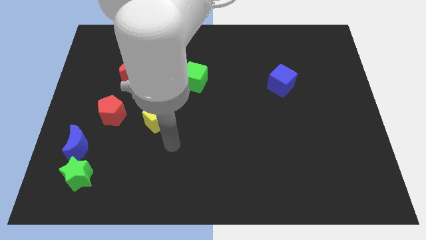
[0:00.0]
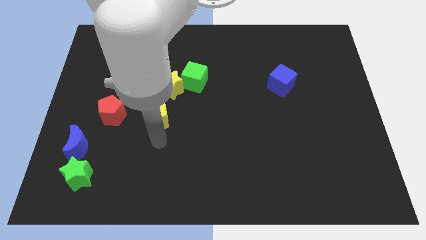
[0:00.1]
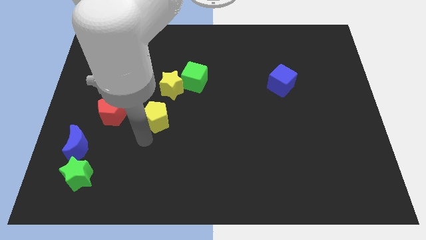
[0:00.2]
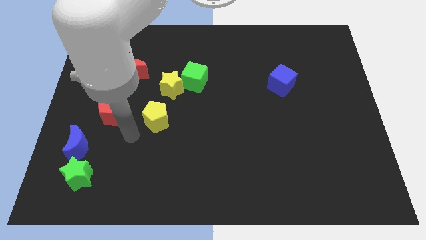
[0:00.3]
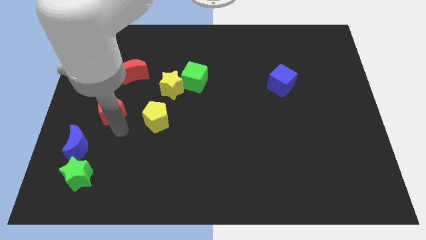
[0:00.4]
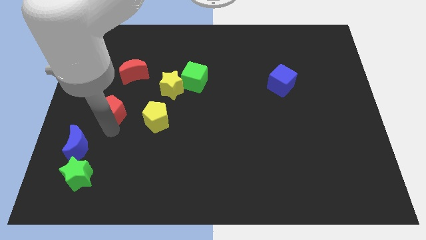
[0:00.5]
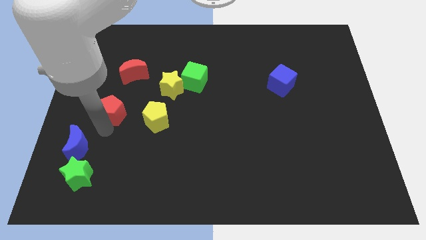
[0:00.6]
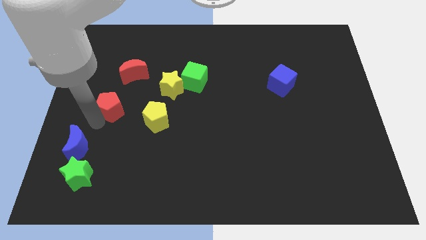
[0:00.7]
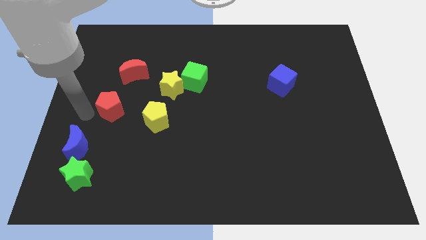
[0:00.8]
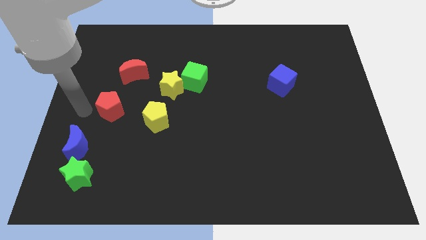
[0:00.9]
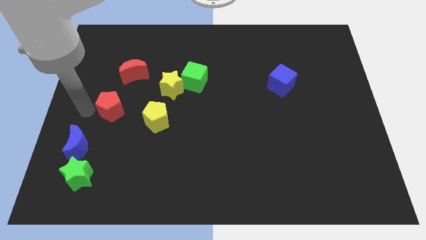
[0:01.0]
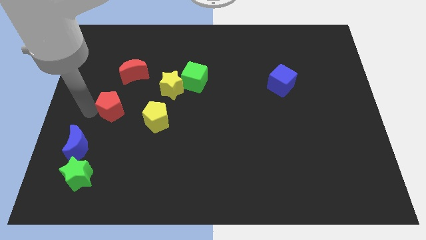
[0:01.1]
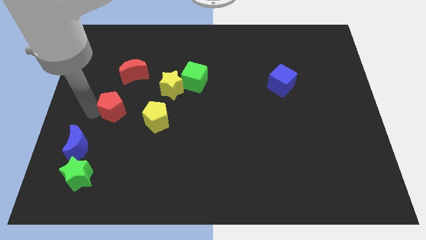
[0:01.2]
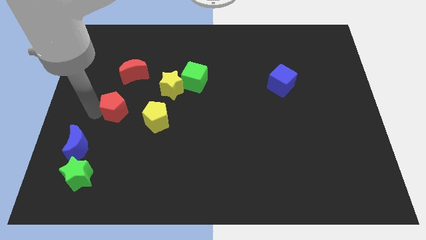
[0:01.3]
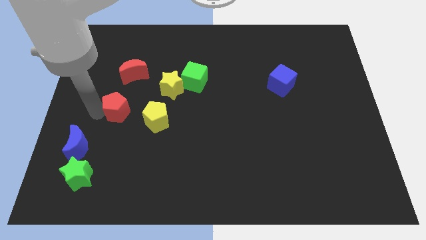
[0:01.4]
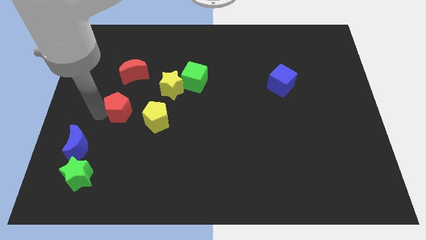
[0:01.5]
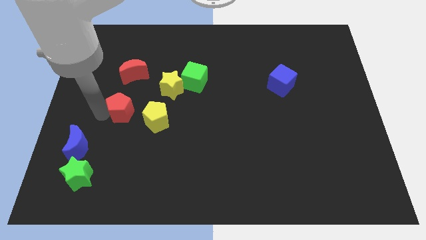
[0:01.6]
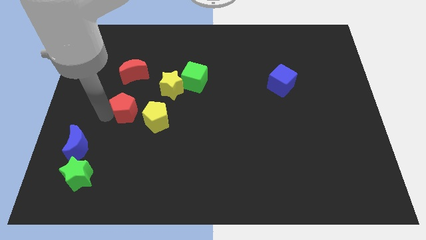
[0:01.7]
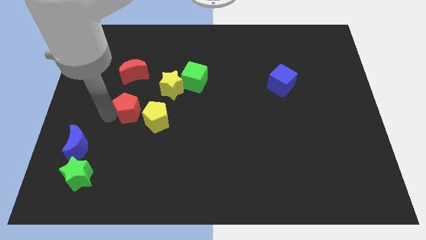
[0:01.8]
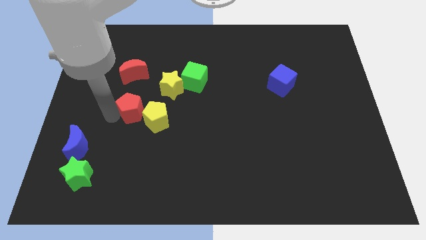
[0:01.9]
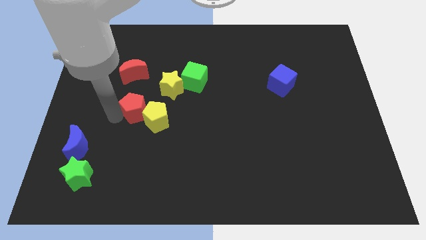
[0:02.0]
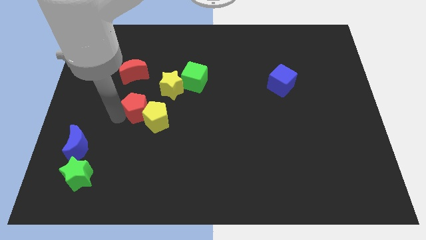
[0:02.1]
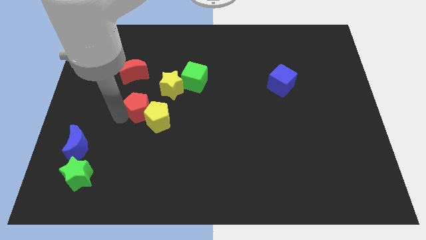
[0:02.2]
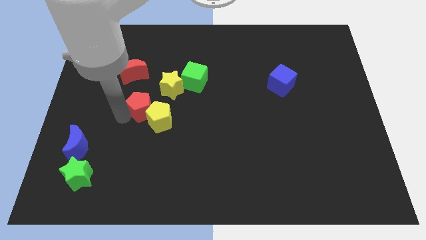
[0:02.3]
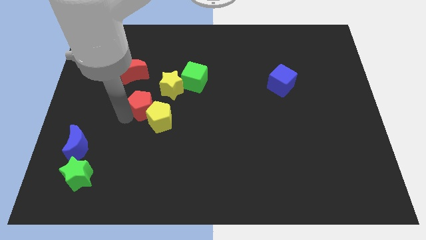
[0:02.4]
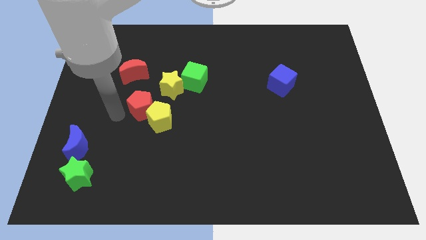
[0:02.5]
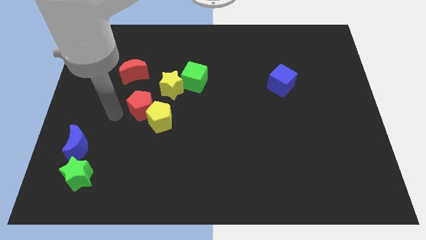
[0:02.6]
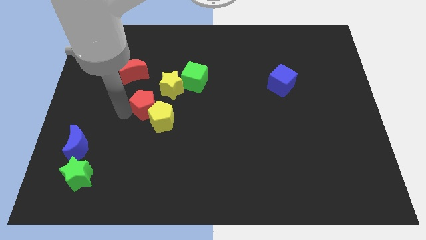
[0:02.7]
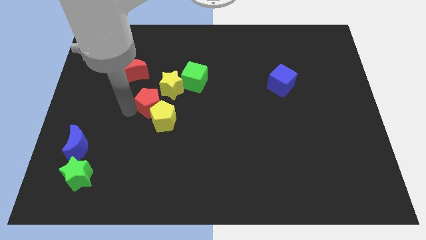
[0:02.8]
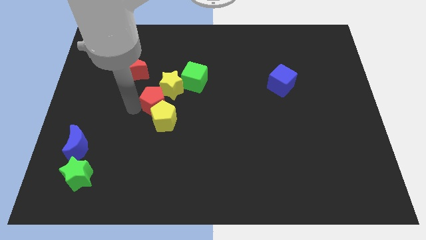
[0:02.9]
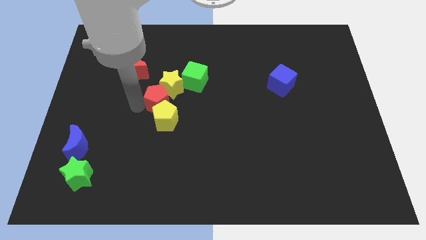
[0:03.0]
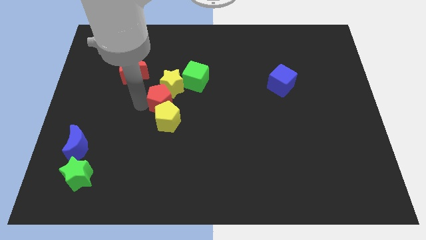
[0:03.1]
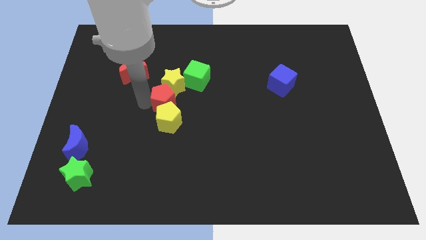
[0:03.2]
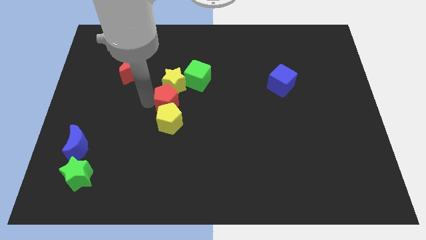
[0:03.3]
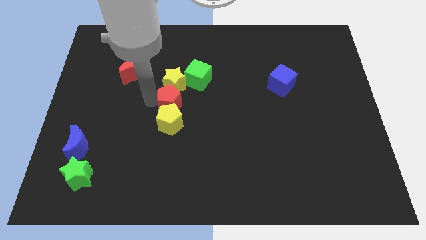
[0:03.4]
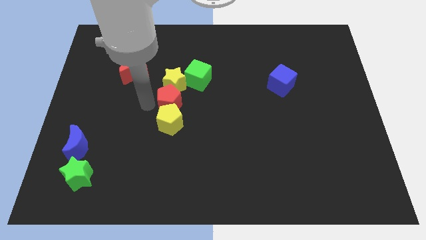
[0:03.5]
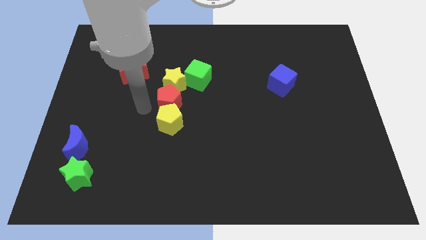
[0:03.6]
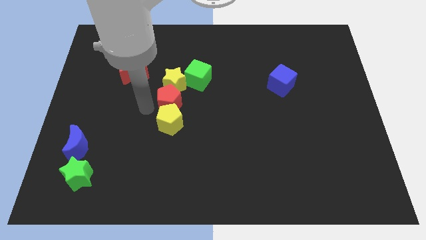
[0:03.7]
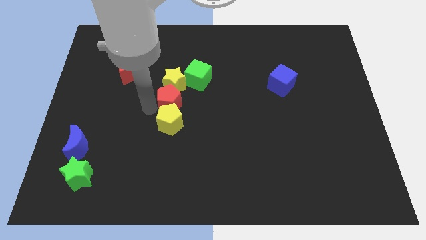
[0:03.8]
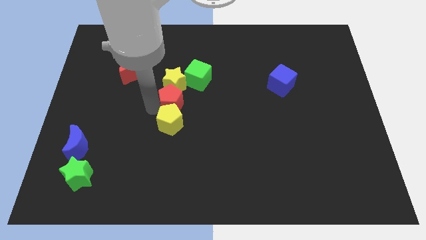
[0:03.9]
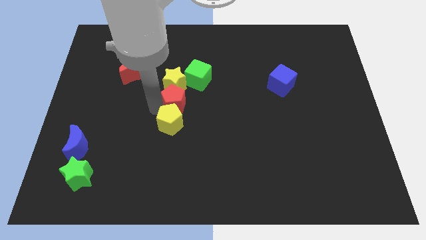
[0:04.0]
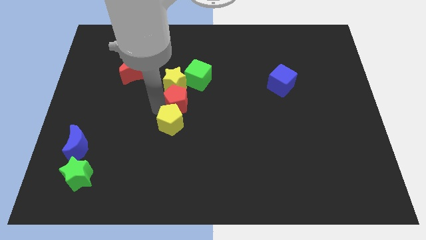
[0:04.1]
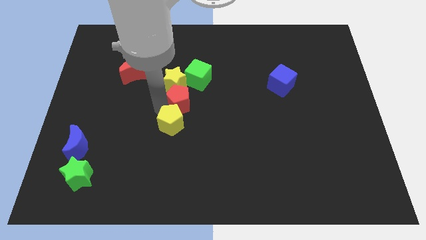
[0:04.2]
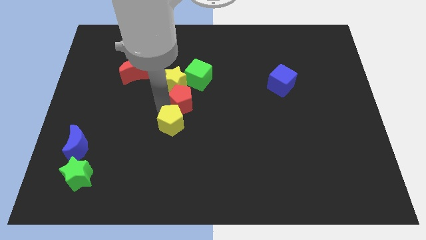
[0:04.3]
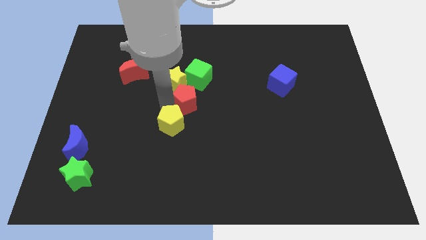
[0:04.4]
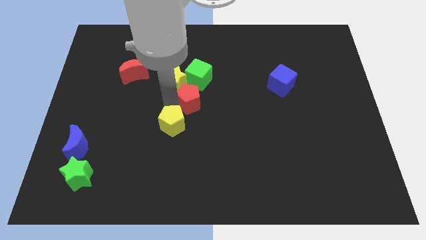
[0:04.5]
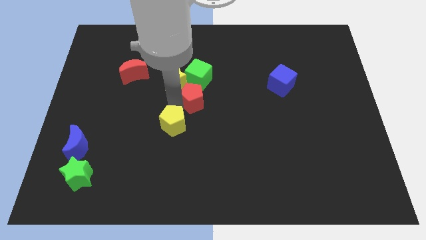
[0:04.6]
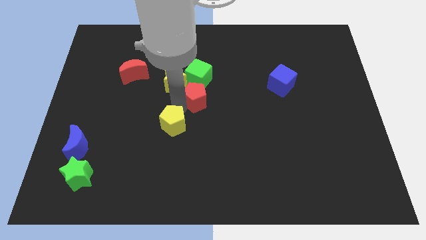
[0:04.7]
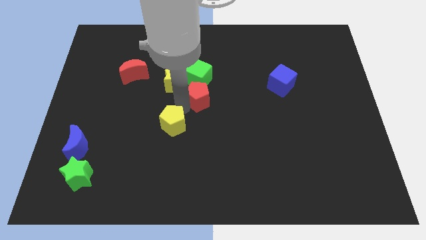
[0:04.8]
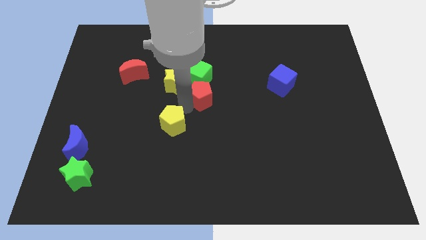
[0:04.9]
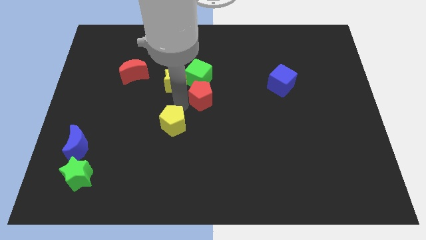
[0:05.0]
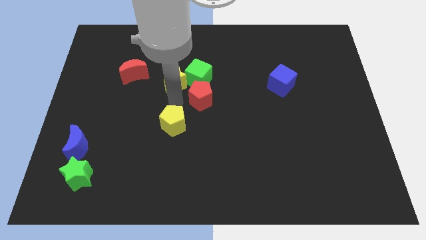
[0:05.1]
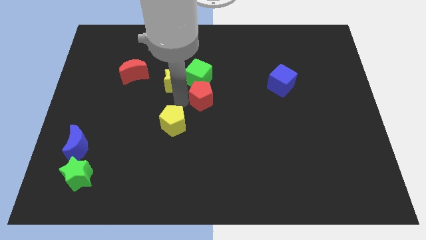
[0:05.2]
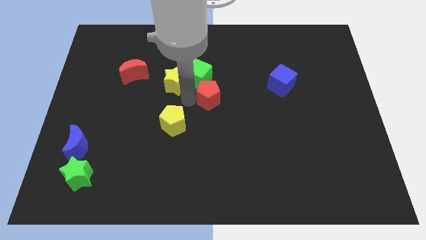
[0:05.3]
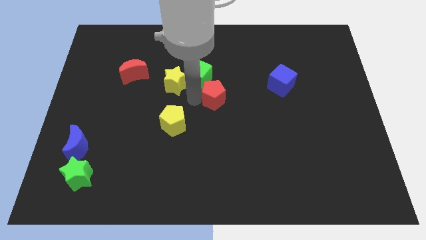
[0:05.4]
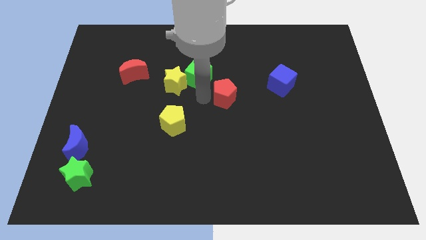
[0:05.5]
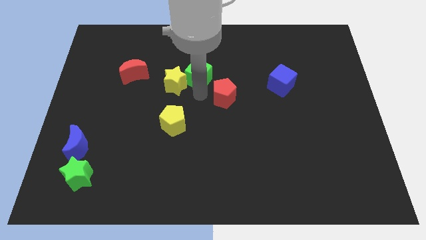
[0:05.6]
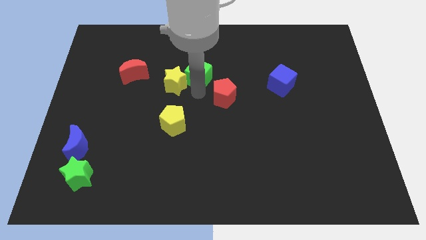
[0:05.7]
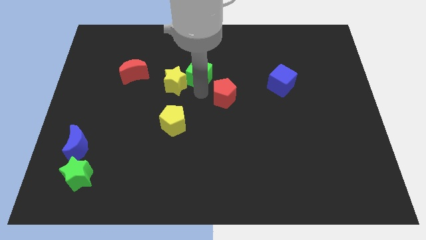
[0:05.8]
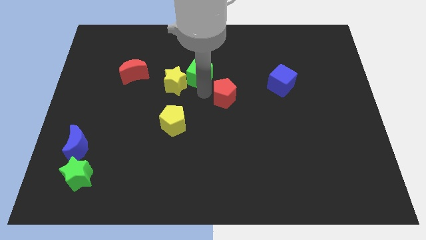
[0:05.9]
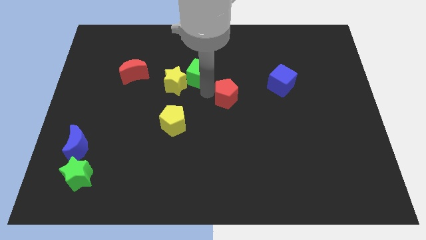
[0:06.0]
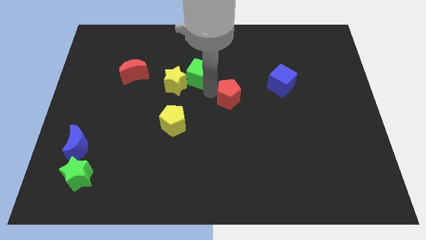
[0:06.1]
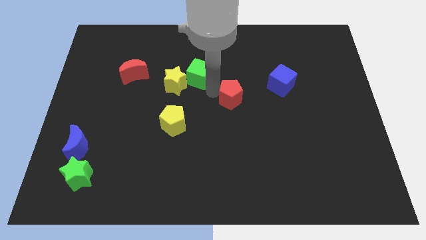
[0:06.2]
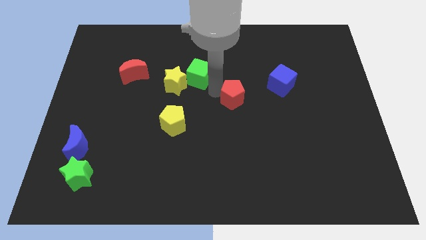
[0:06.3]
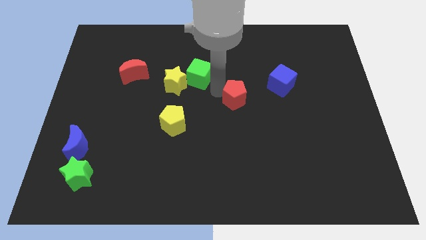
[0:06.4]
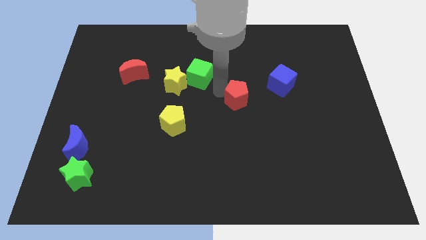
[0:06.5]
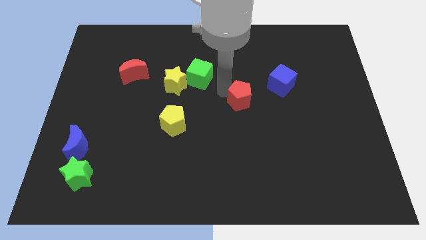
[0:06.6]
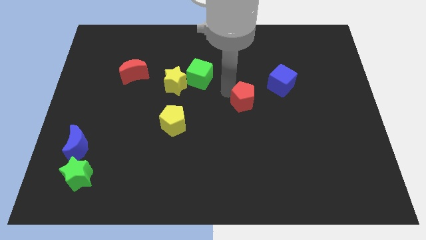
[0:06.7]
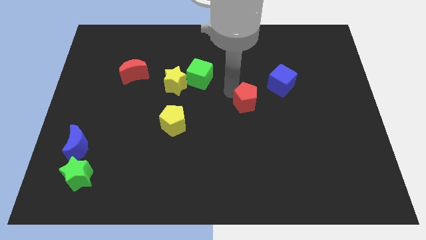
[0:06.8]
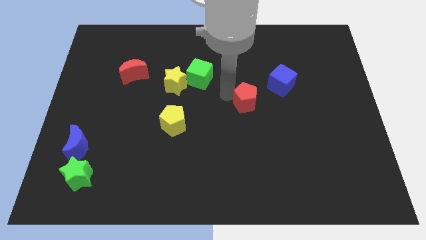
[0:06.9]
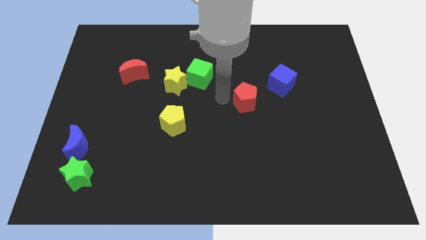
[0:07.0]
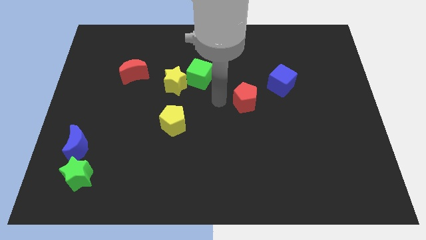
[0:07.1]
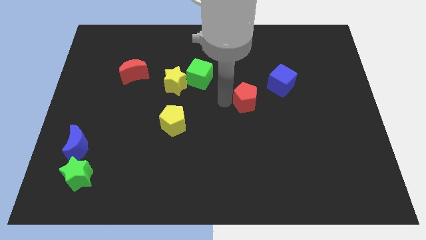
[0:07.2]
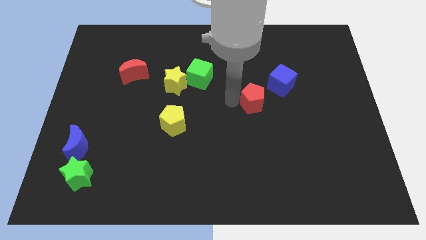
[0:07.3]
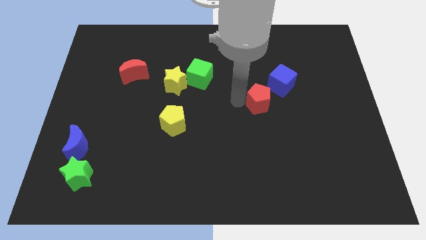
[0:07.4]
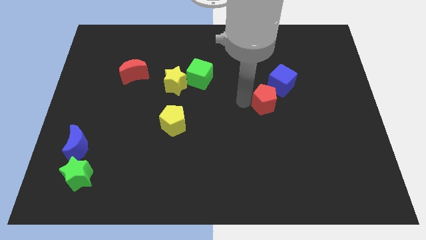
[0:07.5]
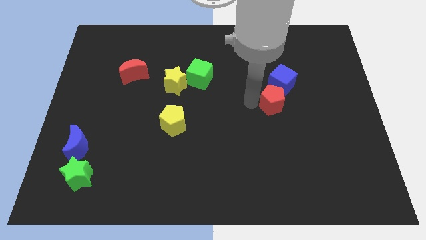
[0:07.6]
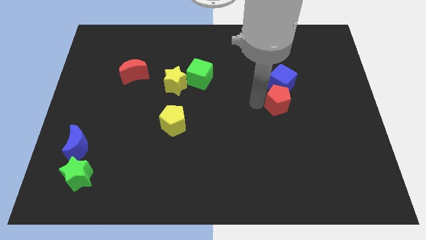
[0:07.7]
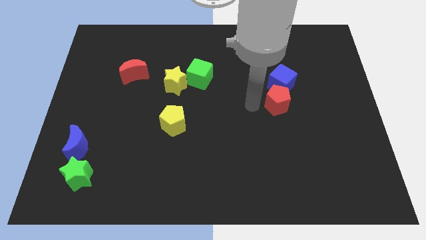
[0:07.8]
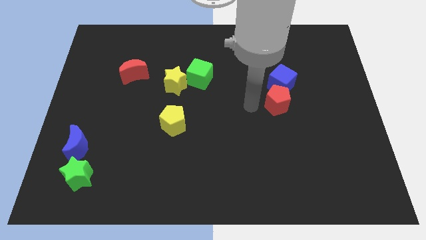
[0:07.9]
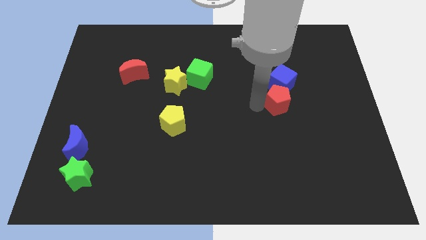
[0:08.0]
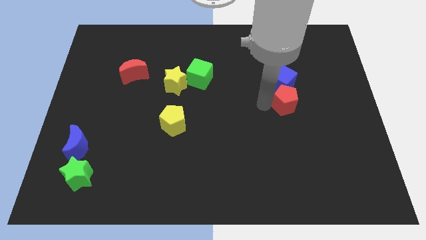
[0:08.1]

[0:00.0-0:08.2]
push the red pentagon to the bottom right of the blue cube
